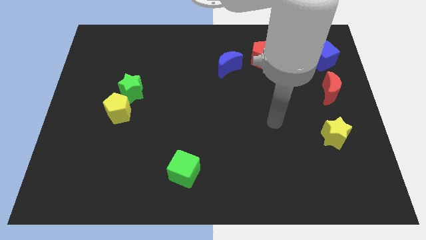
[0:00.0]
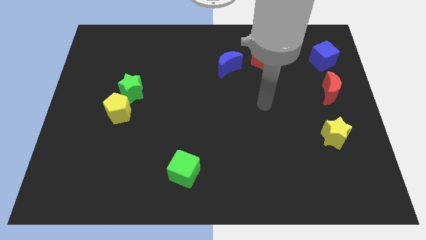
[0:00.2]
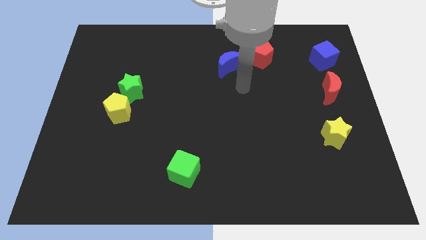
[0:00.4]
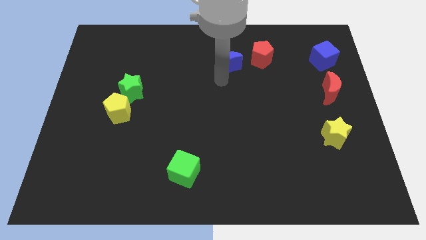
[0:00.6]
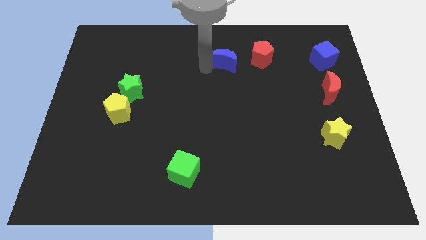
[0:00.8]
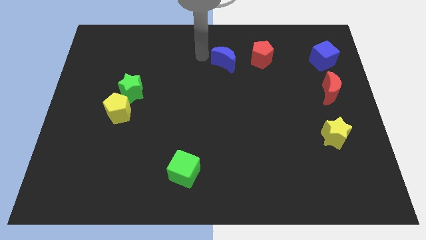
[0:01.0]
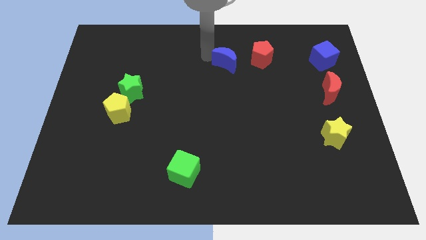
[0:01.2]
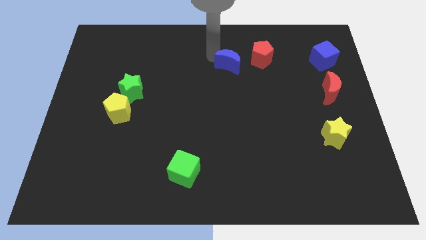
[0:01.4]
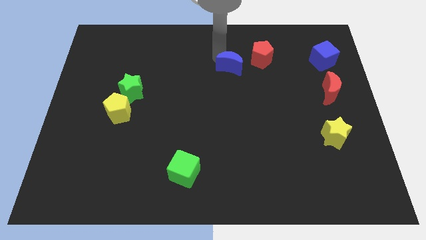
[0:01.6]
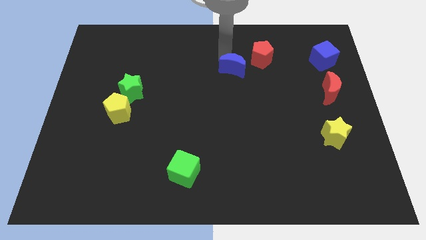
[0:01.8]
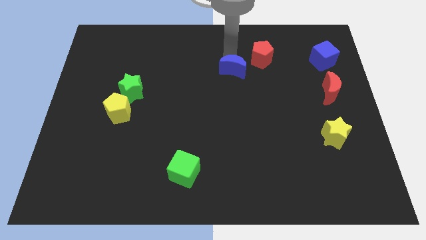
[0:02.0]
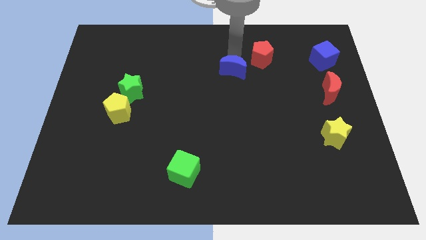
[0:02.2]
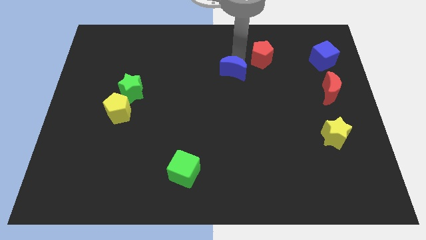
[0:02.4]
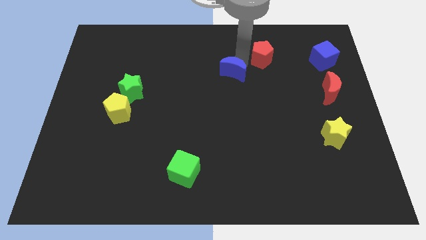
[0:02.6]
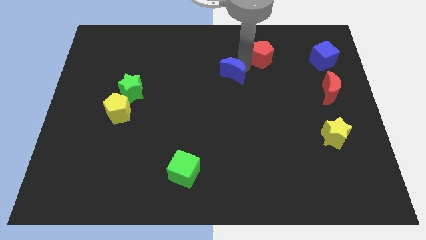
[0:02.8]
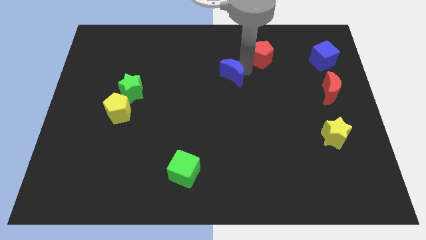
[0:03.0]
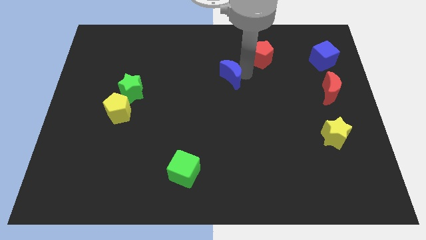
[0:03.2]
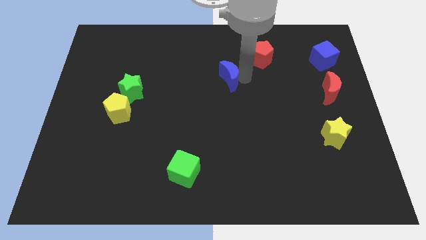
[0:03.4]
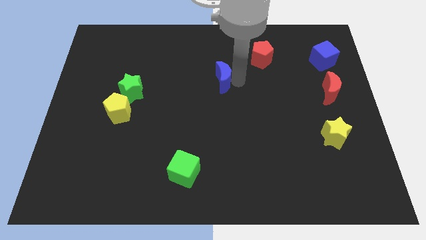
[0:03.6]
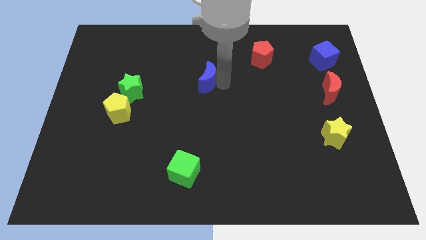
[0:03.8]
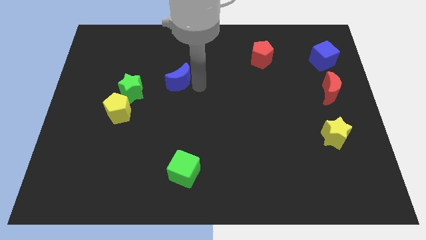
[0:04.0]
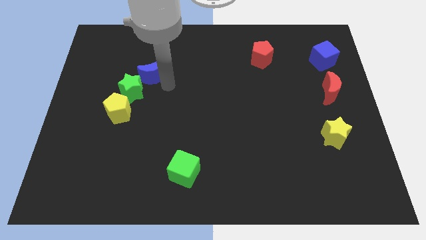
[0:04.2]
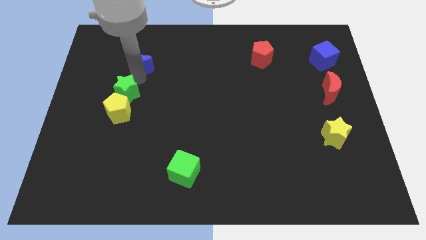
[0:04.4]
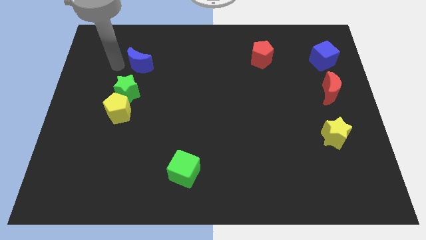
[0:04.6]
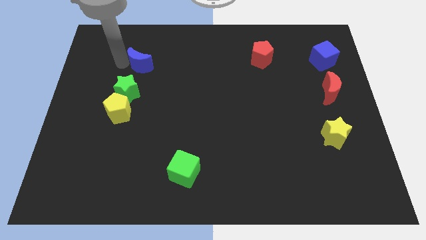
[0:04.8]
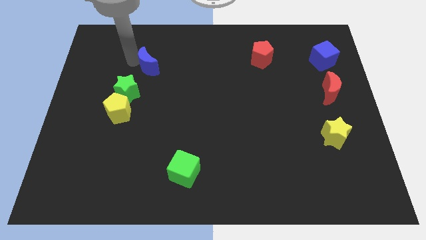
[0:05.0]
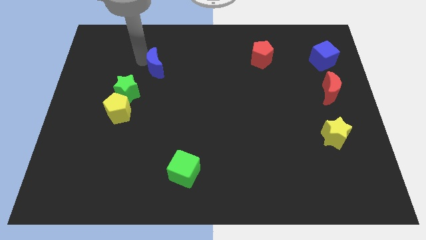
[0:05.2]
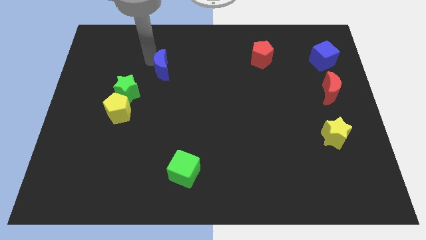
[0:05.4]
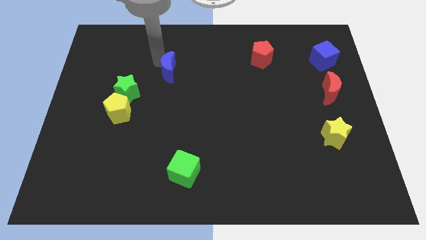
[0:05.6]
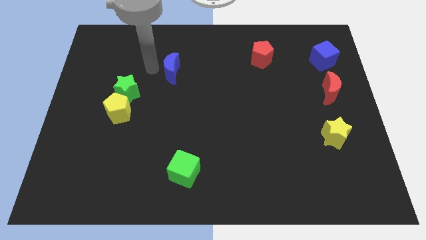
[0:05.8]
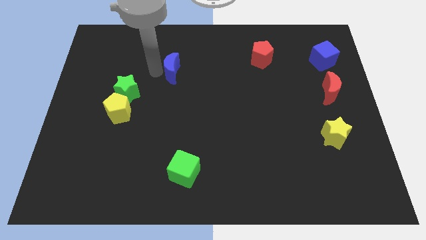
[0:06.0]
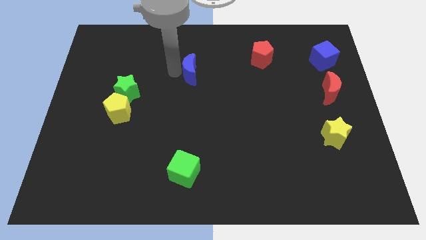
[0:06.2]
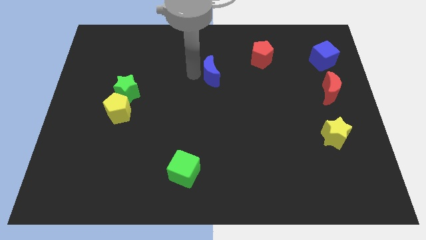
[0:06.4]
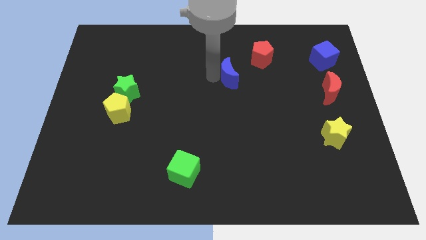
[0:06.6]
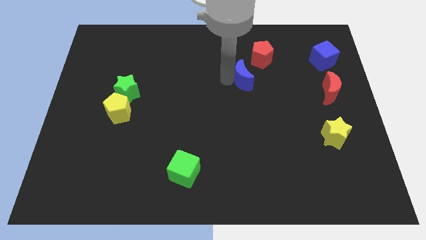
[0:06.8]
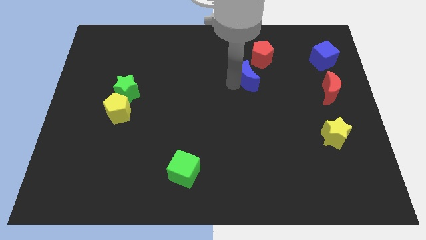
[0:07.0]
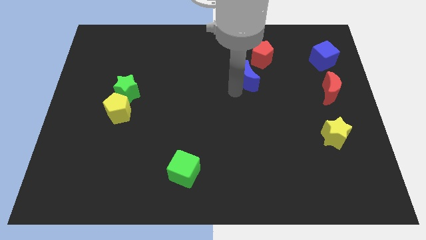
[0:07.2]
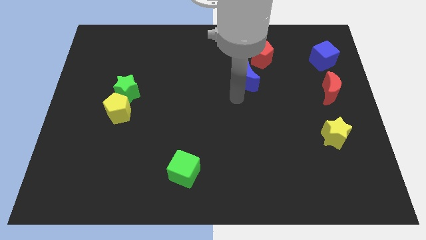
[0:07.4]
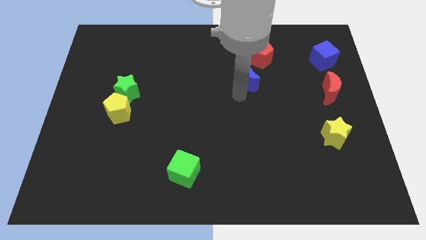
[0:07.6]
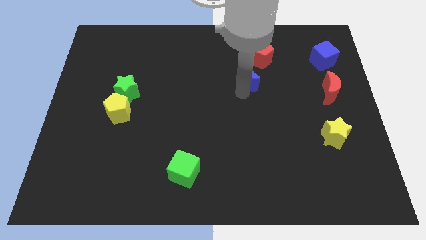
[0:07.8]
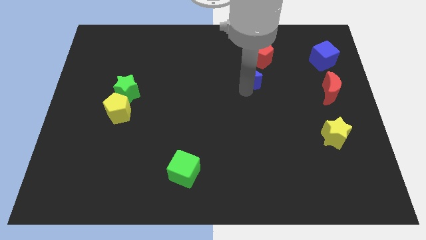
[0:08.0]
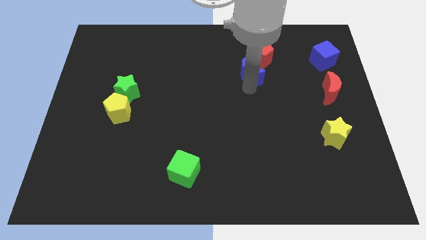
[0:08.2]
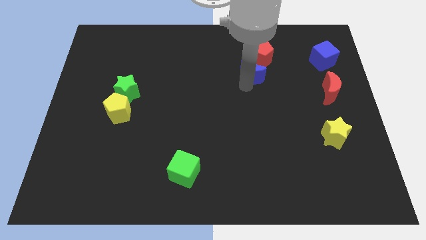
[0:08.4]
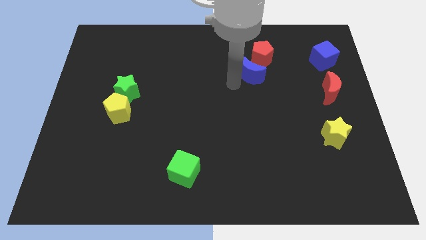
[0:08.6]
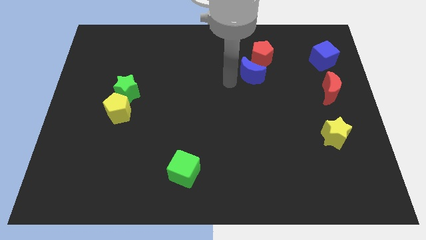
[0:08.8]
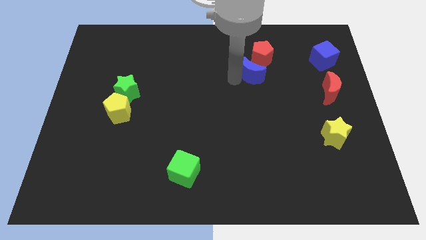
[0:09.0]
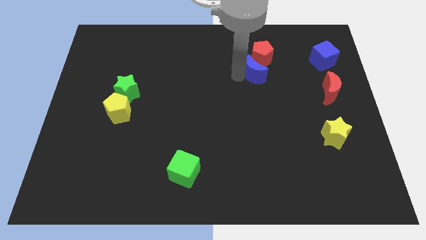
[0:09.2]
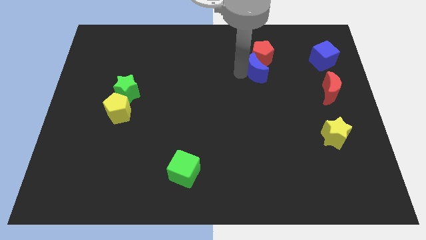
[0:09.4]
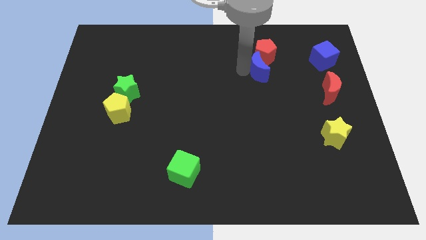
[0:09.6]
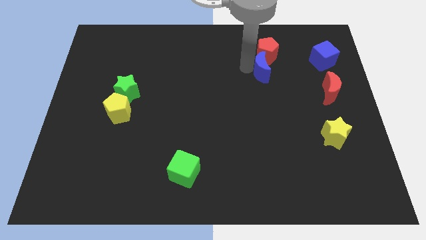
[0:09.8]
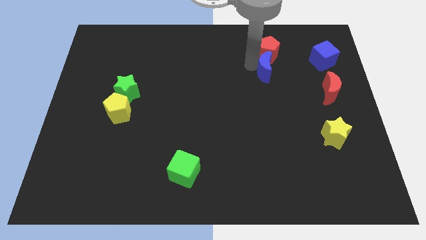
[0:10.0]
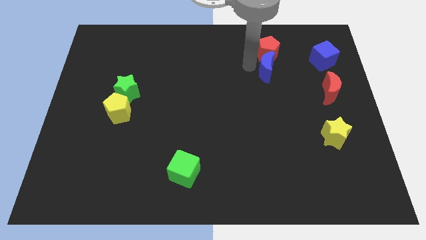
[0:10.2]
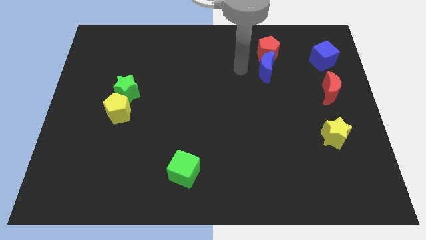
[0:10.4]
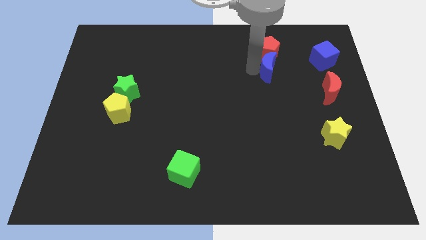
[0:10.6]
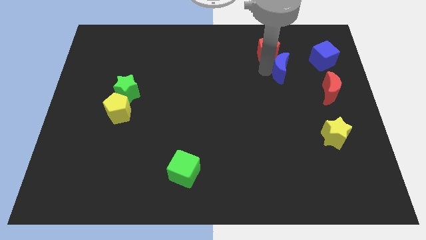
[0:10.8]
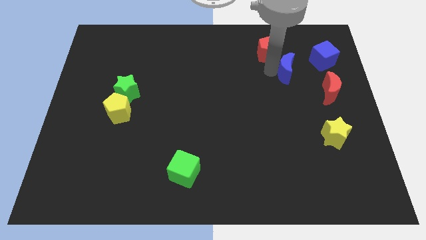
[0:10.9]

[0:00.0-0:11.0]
push the blue moon to the top left of the red moon
